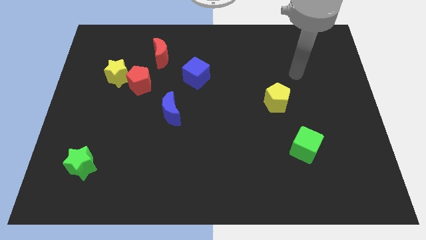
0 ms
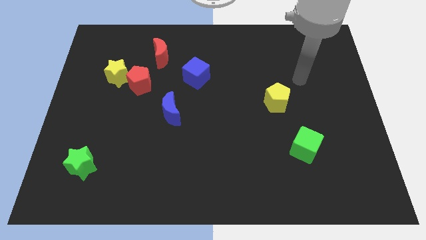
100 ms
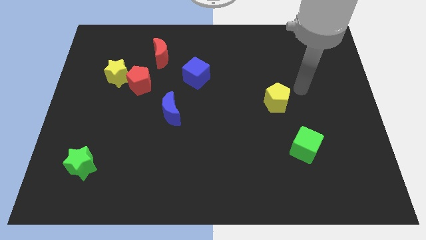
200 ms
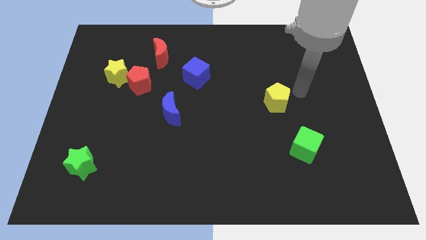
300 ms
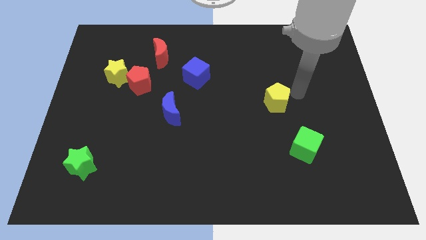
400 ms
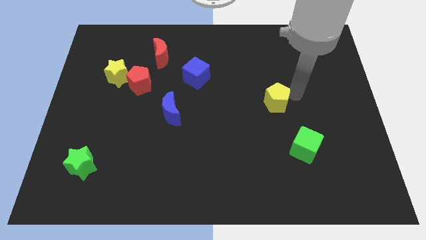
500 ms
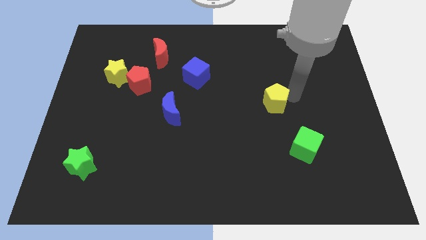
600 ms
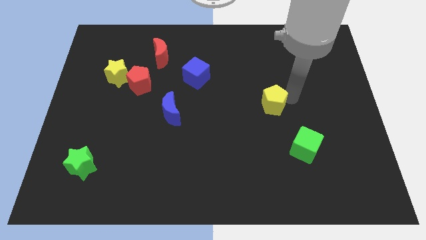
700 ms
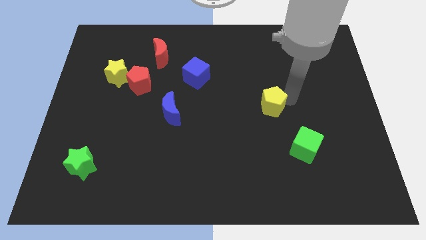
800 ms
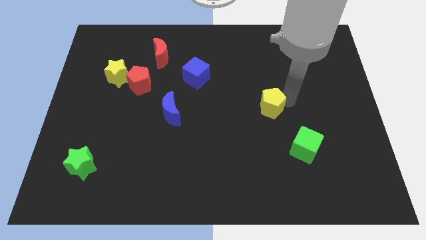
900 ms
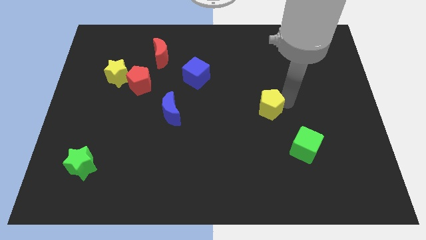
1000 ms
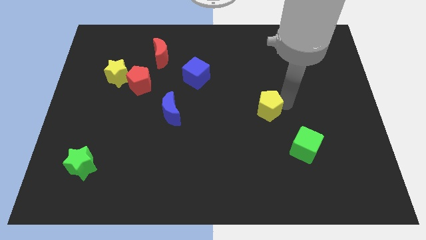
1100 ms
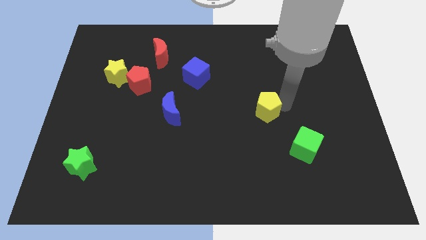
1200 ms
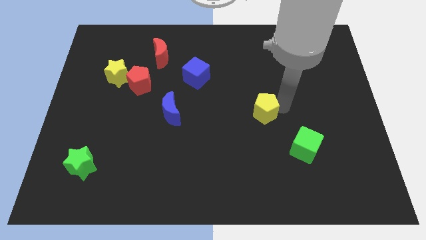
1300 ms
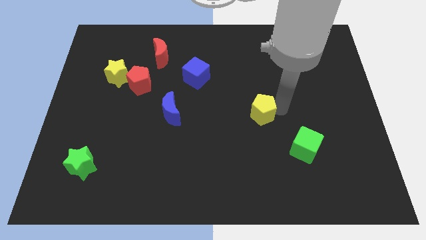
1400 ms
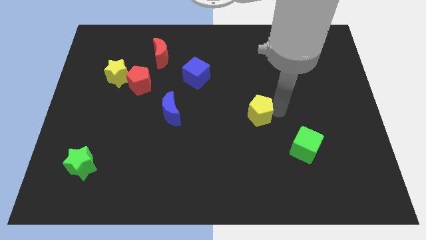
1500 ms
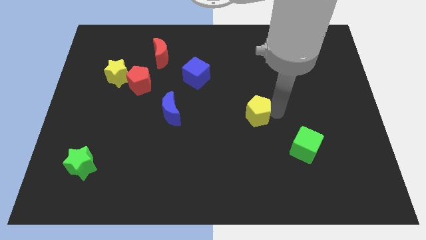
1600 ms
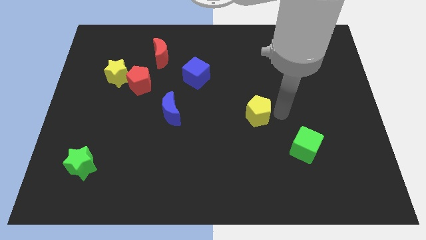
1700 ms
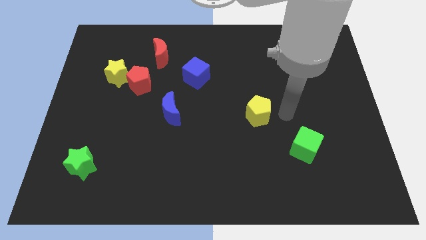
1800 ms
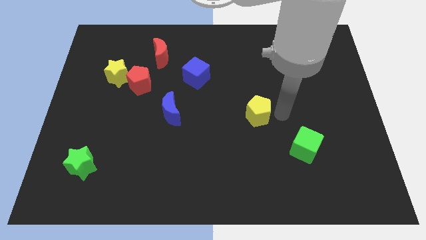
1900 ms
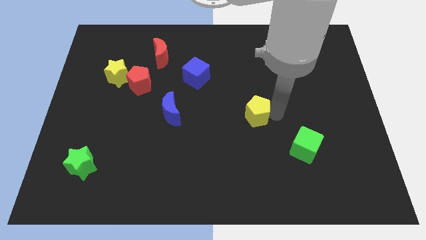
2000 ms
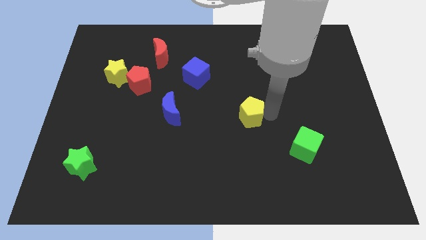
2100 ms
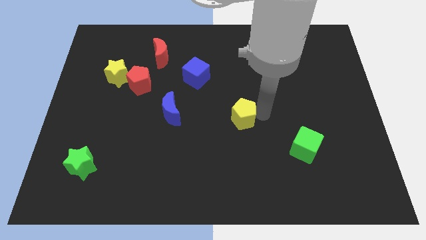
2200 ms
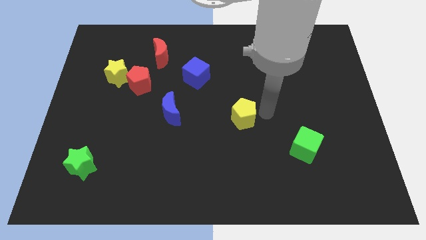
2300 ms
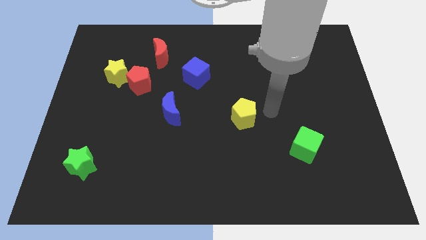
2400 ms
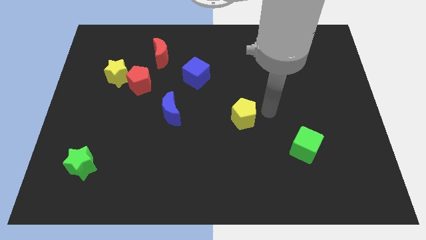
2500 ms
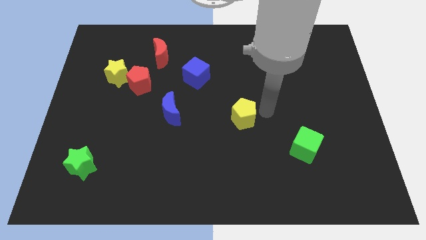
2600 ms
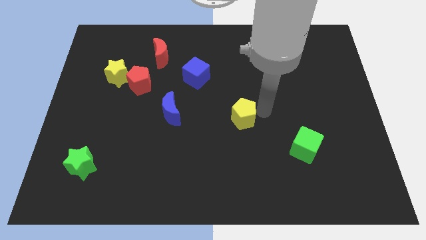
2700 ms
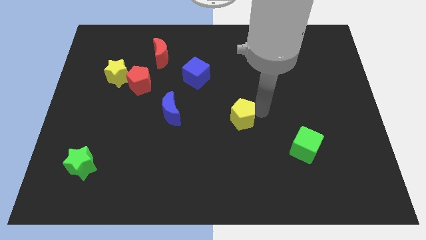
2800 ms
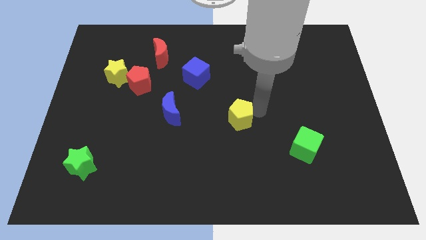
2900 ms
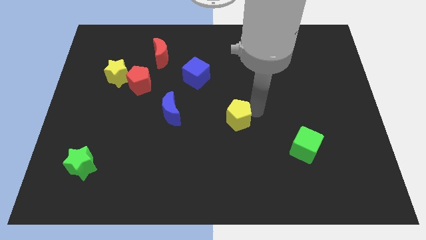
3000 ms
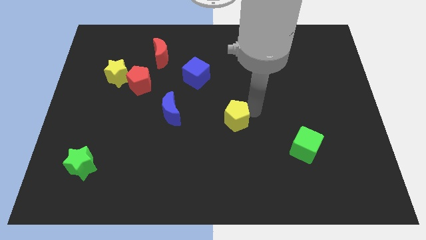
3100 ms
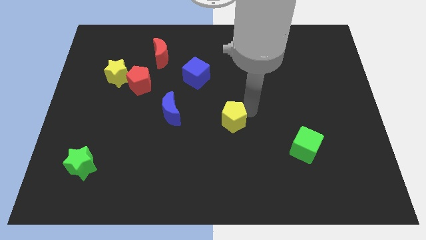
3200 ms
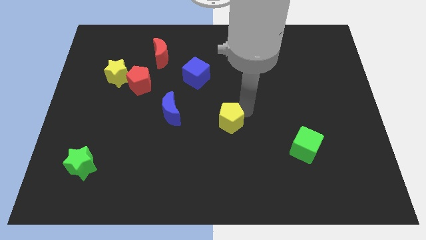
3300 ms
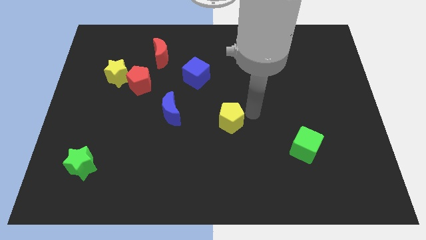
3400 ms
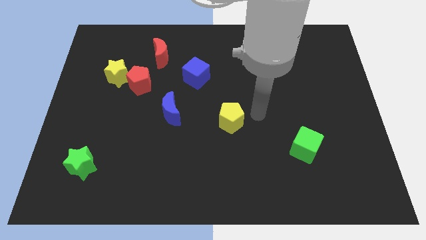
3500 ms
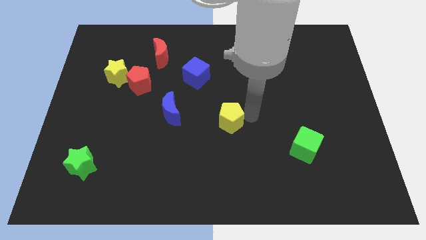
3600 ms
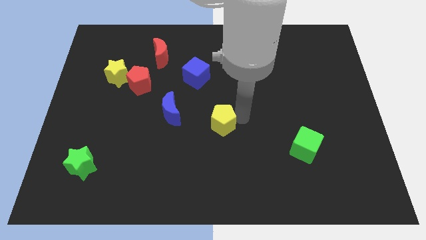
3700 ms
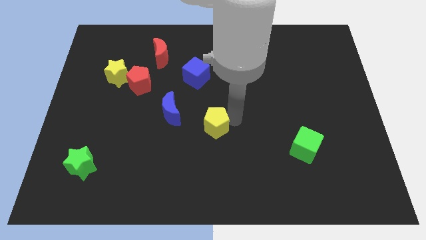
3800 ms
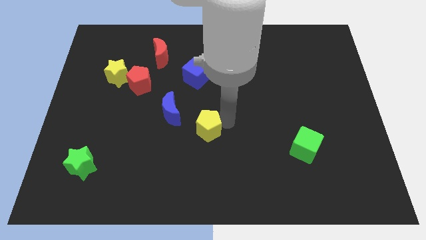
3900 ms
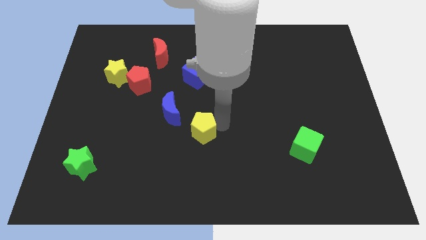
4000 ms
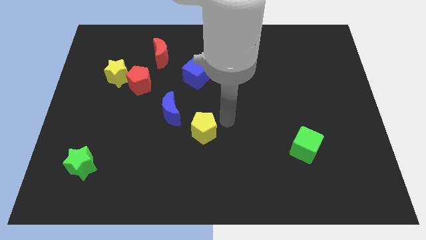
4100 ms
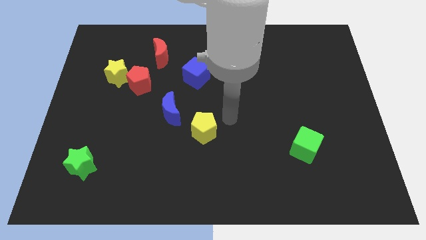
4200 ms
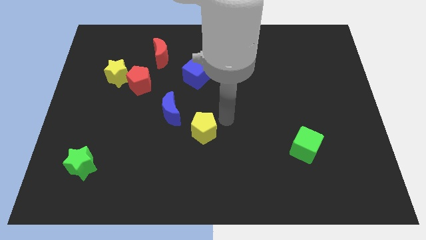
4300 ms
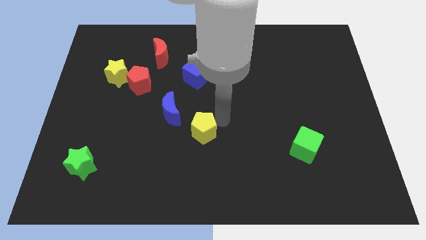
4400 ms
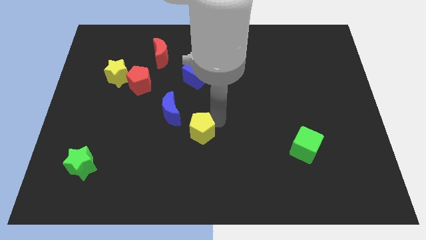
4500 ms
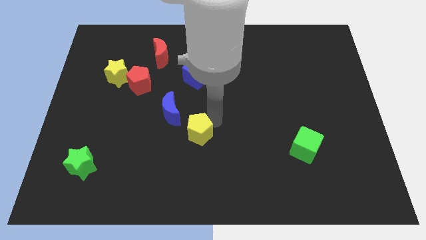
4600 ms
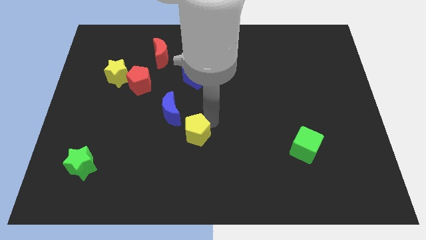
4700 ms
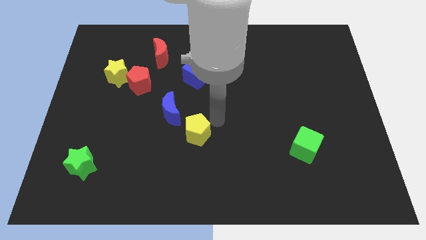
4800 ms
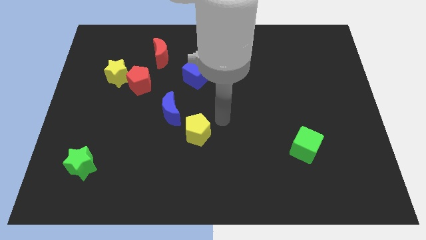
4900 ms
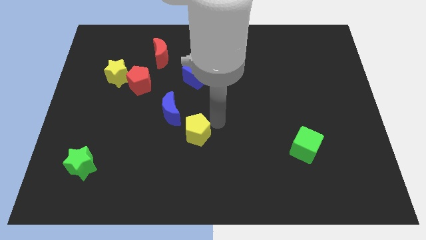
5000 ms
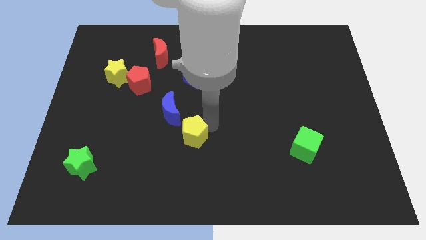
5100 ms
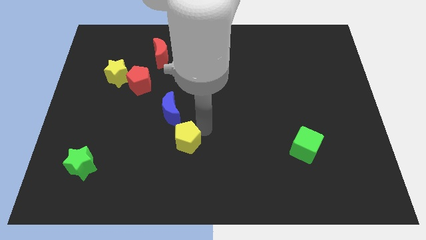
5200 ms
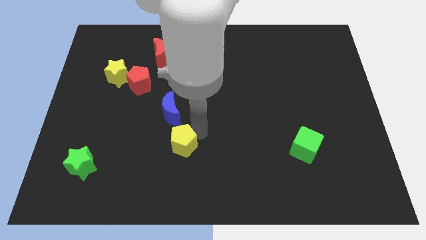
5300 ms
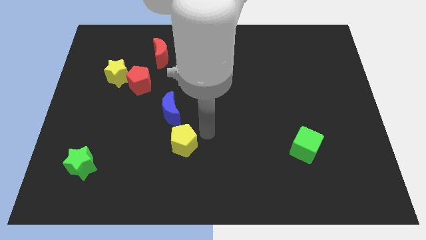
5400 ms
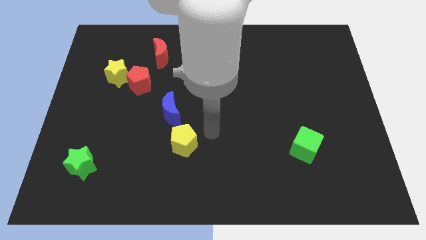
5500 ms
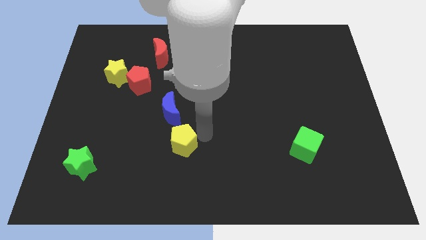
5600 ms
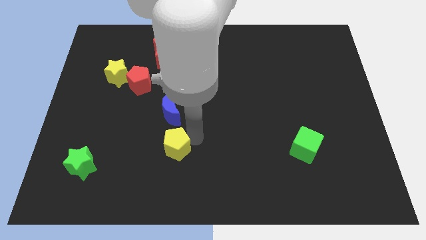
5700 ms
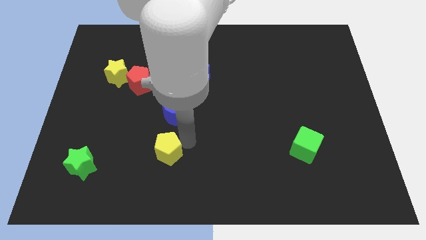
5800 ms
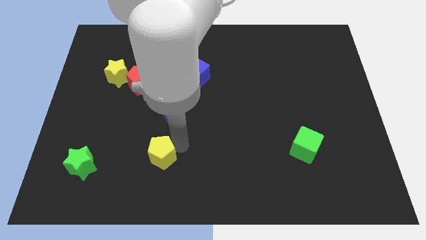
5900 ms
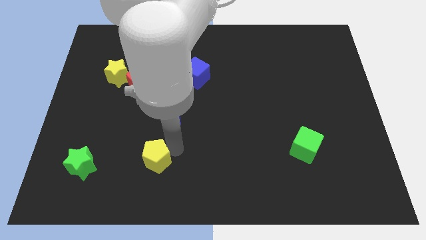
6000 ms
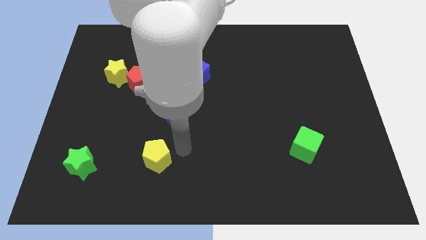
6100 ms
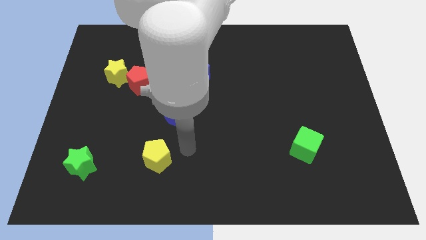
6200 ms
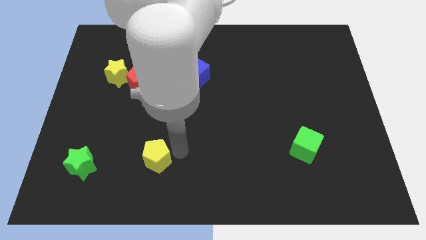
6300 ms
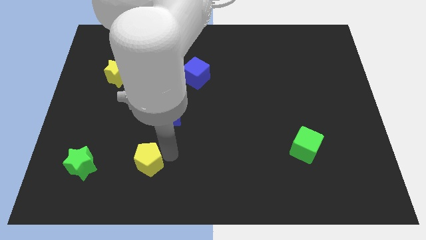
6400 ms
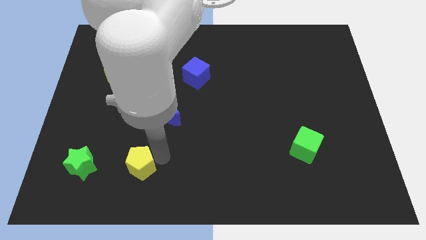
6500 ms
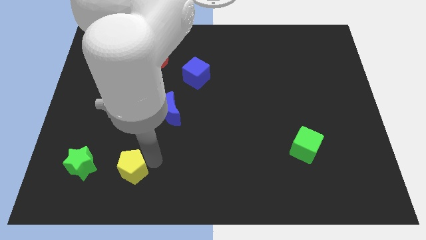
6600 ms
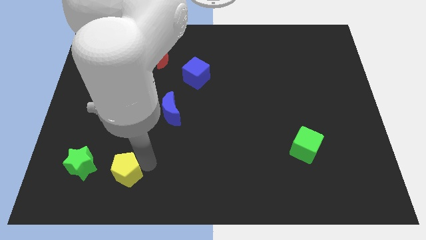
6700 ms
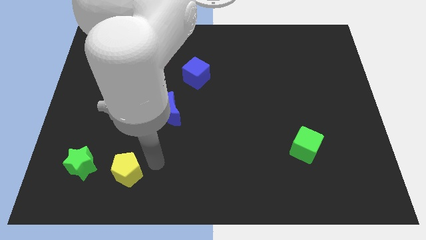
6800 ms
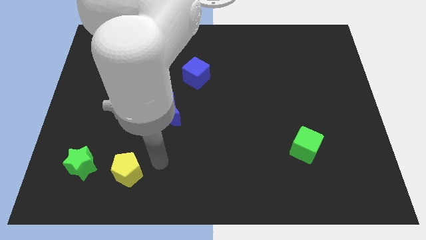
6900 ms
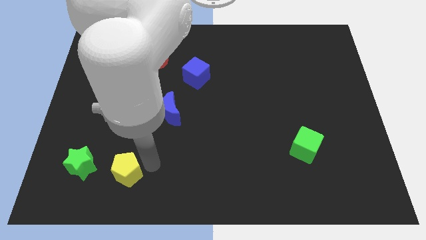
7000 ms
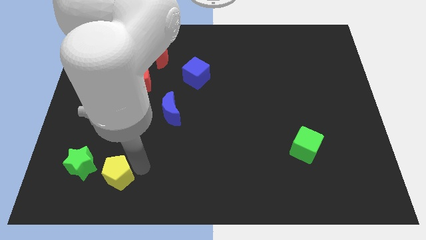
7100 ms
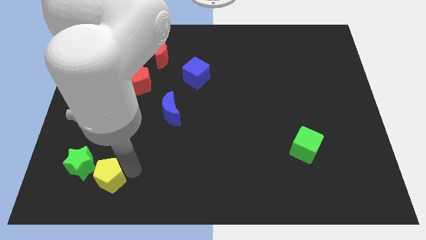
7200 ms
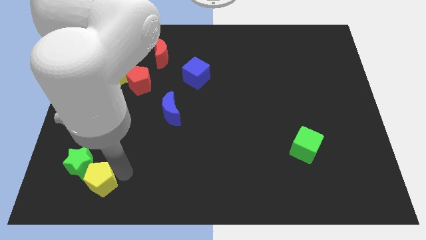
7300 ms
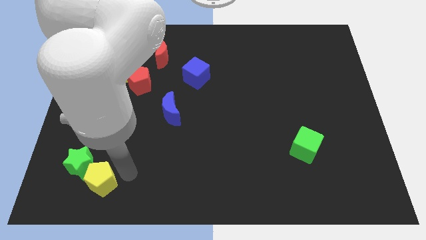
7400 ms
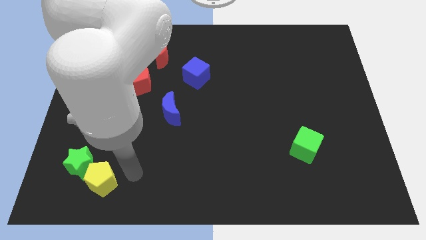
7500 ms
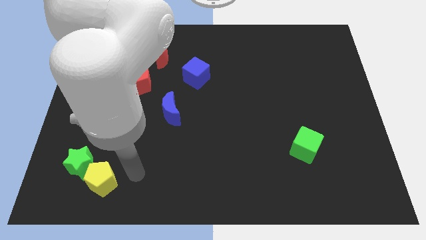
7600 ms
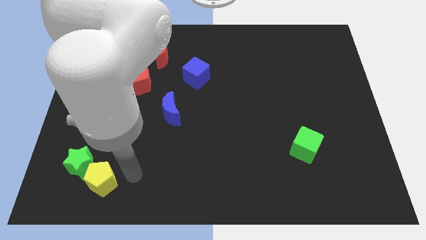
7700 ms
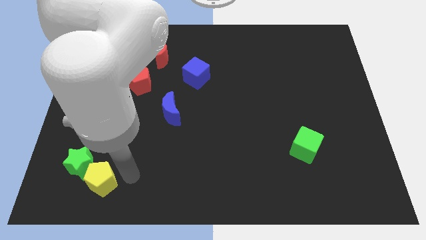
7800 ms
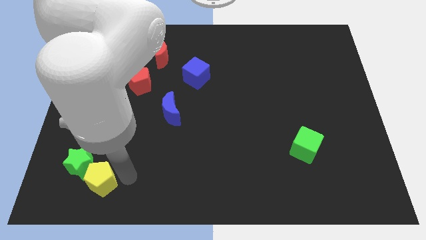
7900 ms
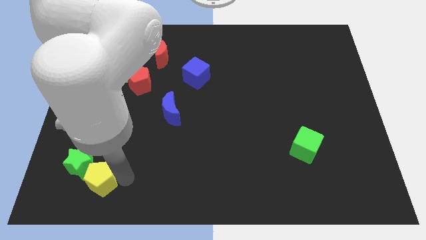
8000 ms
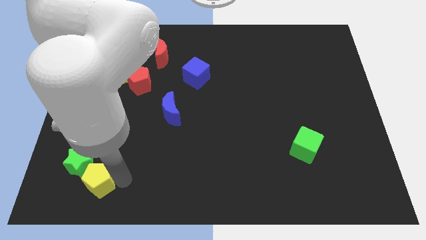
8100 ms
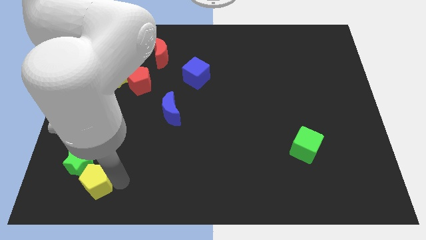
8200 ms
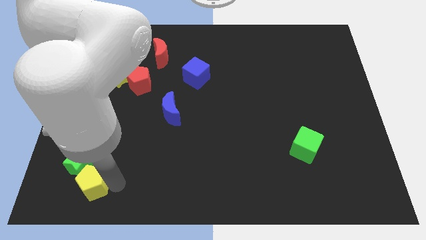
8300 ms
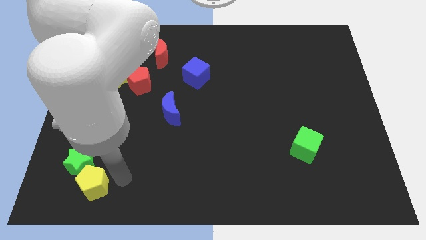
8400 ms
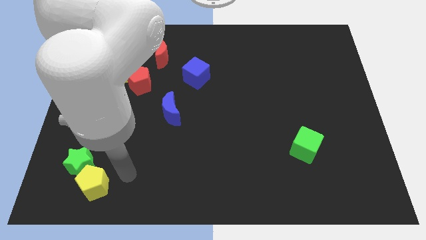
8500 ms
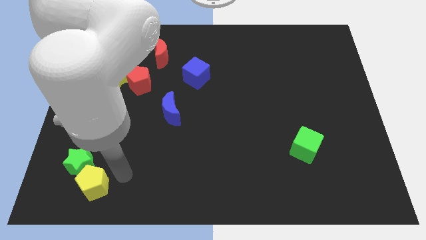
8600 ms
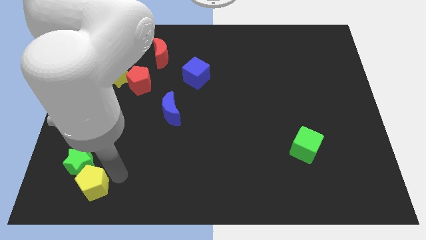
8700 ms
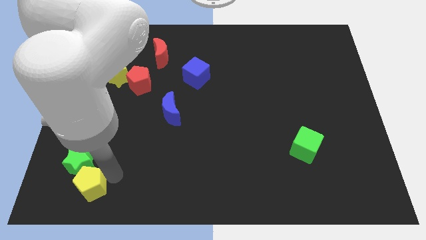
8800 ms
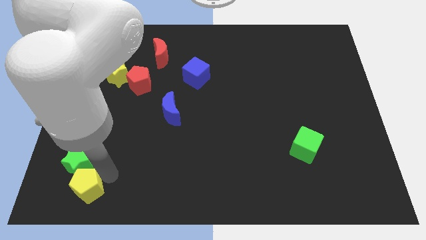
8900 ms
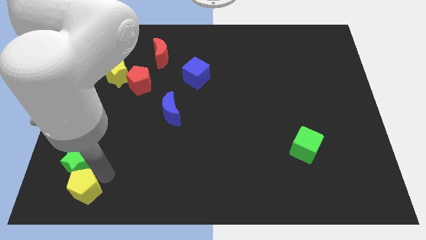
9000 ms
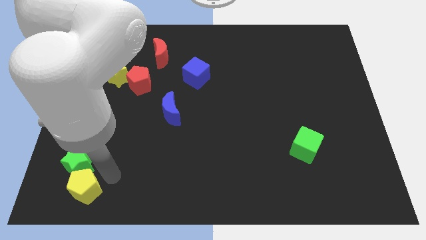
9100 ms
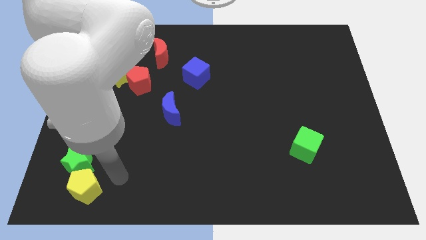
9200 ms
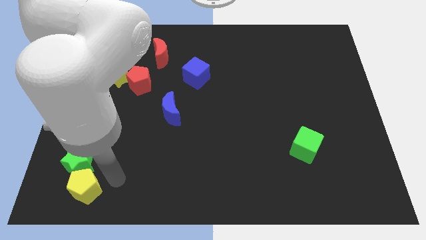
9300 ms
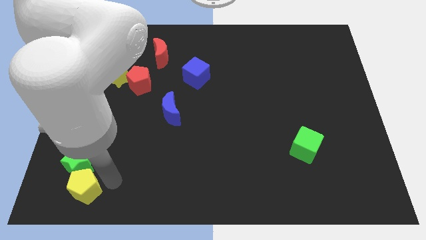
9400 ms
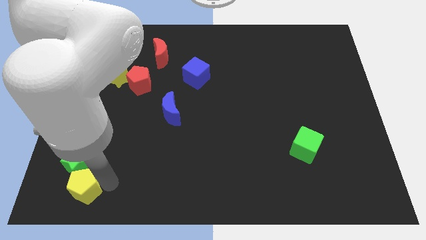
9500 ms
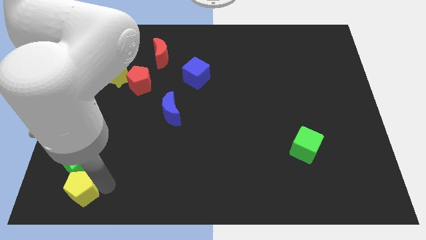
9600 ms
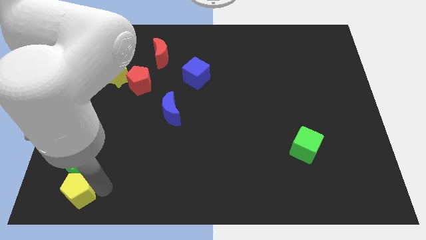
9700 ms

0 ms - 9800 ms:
push the yellow pentagon to the bottom left corner
